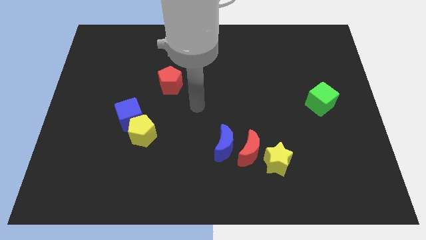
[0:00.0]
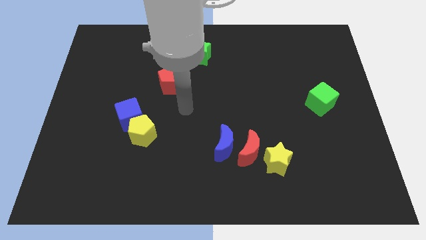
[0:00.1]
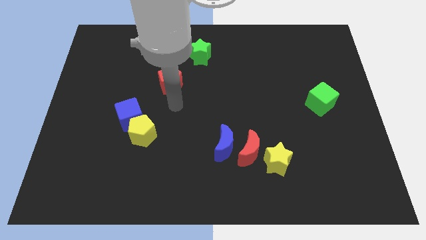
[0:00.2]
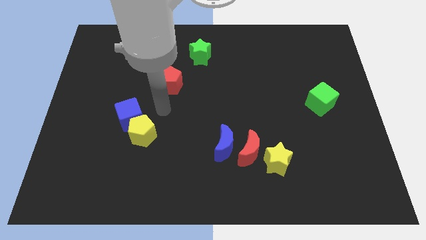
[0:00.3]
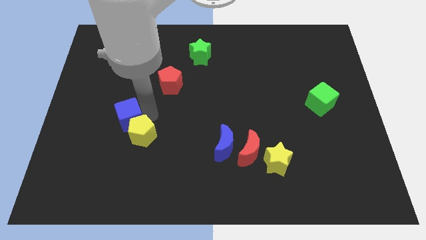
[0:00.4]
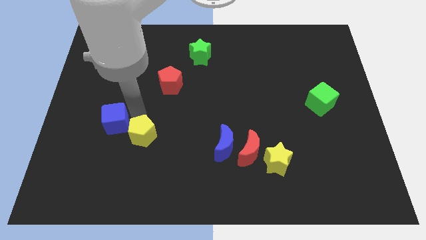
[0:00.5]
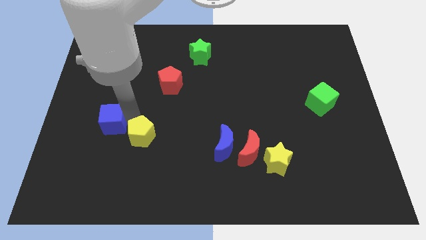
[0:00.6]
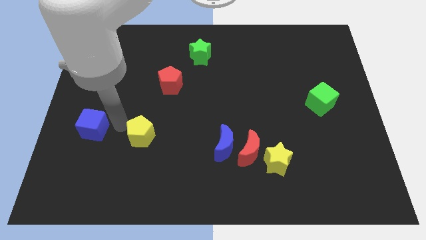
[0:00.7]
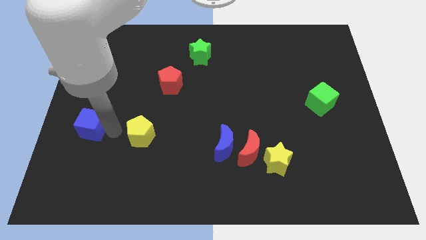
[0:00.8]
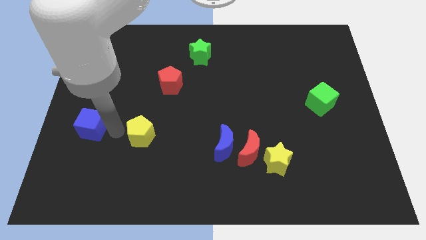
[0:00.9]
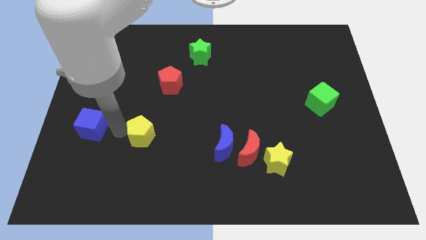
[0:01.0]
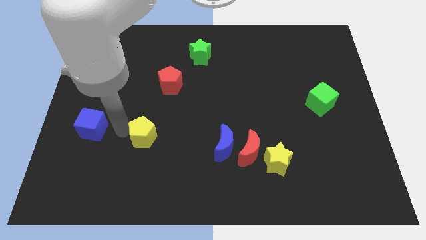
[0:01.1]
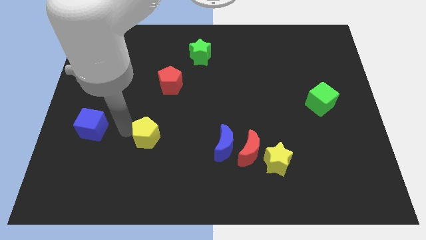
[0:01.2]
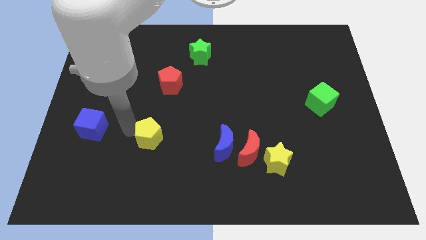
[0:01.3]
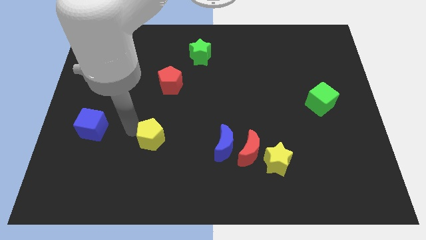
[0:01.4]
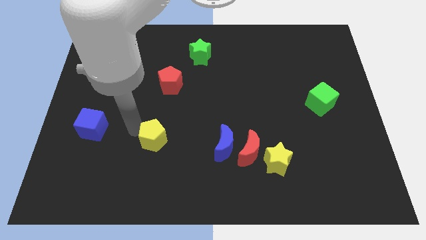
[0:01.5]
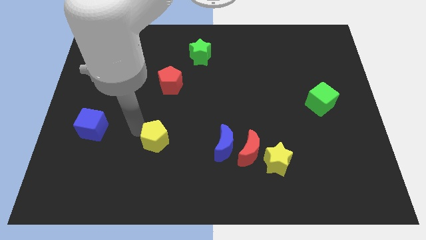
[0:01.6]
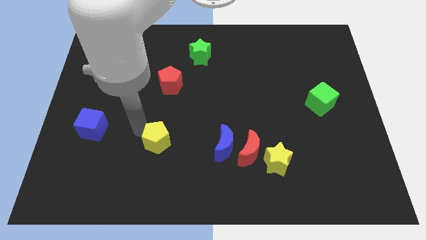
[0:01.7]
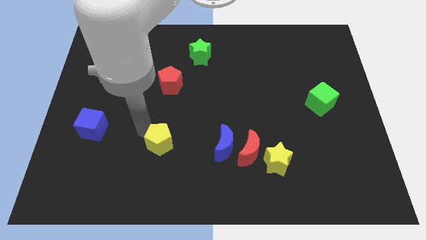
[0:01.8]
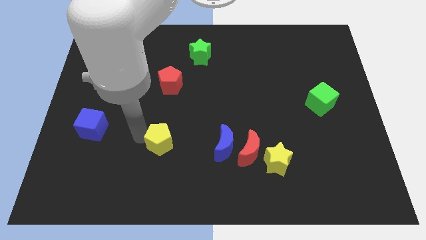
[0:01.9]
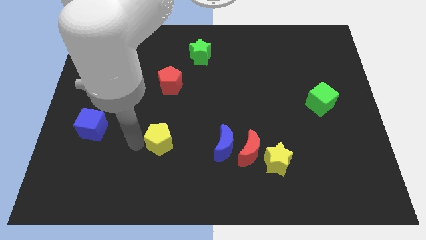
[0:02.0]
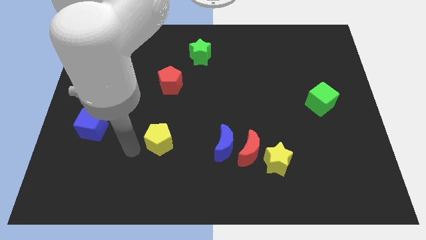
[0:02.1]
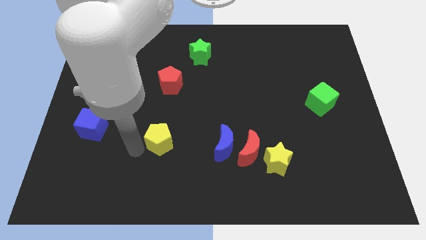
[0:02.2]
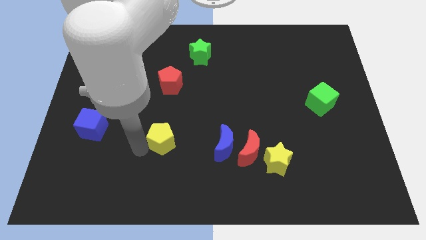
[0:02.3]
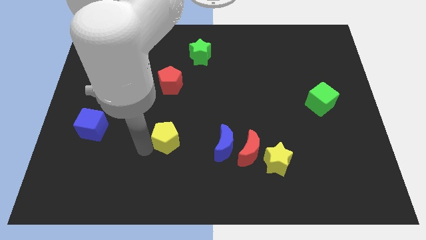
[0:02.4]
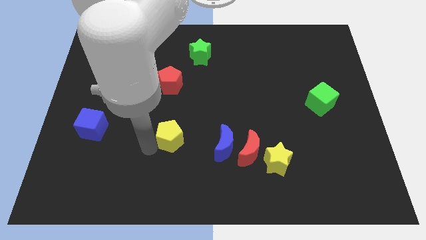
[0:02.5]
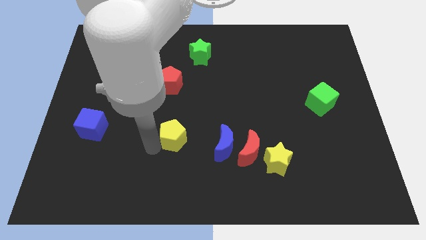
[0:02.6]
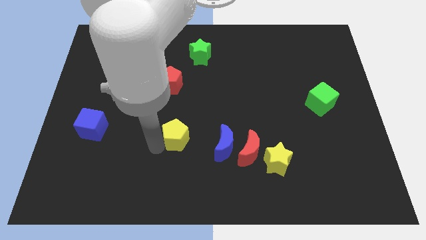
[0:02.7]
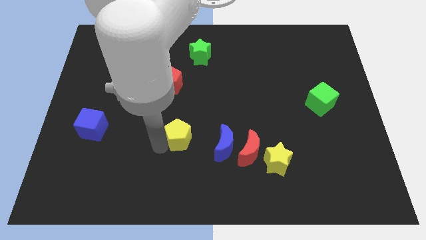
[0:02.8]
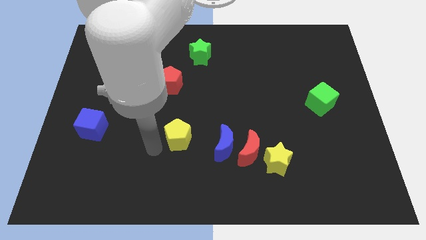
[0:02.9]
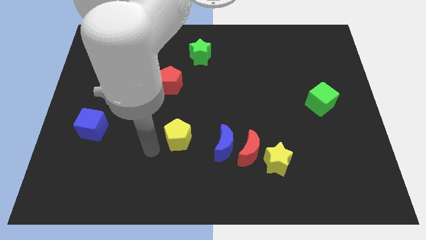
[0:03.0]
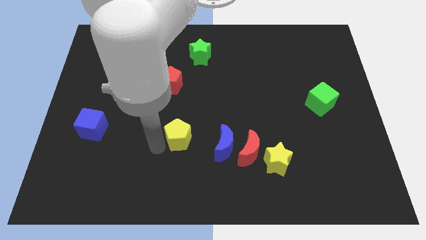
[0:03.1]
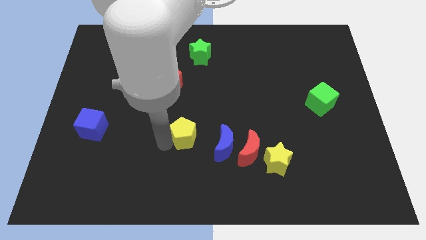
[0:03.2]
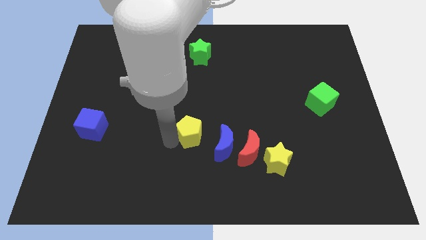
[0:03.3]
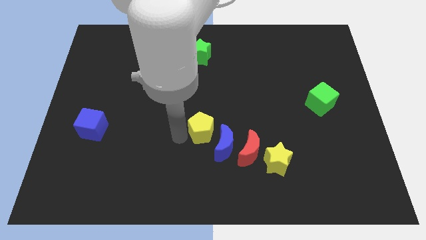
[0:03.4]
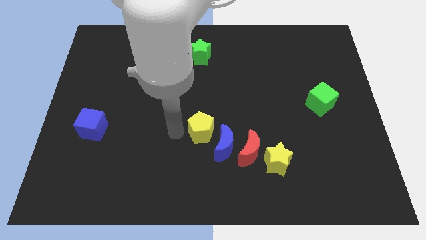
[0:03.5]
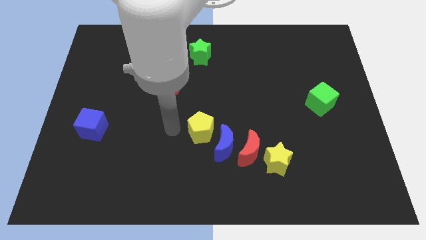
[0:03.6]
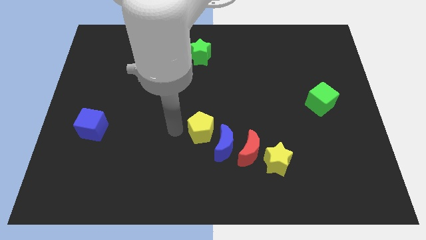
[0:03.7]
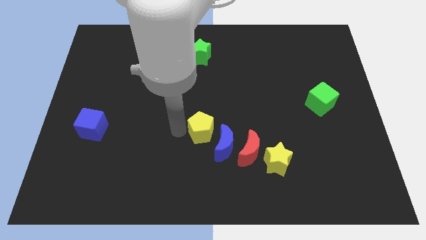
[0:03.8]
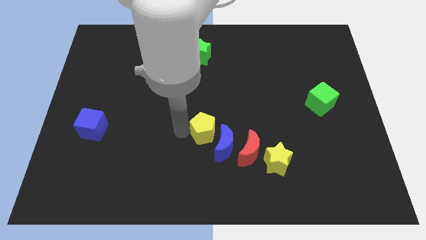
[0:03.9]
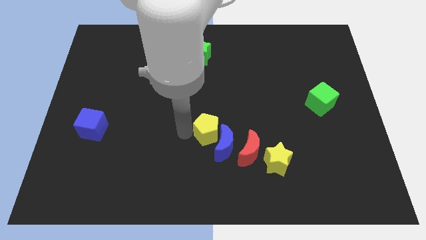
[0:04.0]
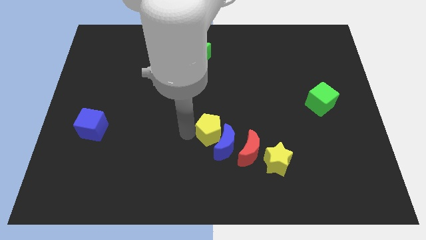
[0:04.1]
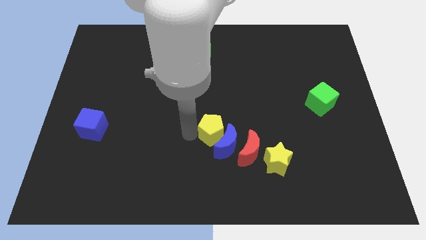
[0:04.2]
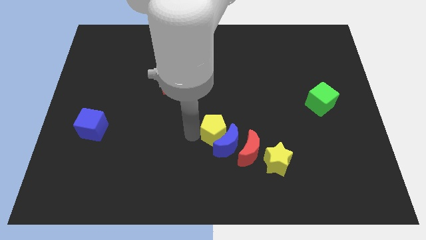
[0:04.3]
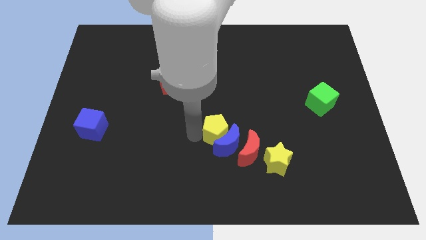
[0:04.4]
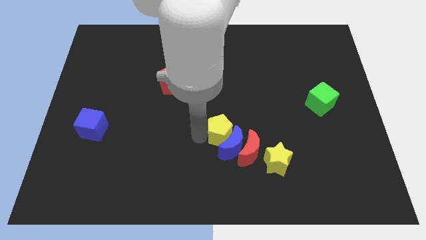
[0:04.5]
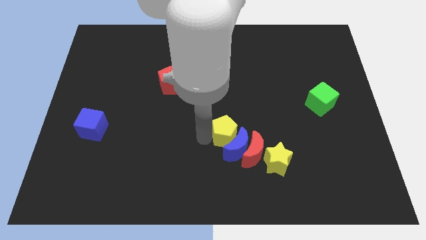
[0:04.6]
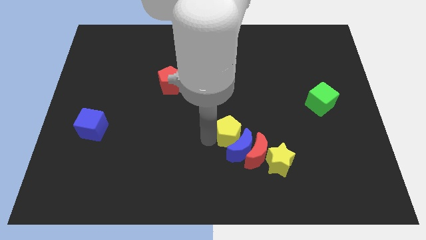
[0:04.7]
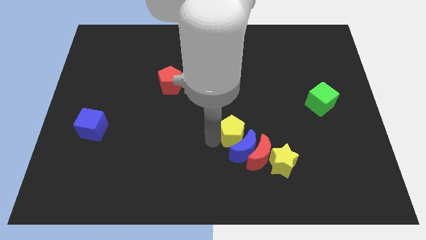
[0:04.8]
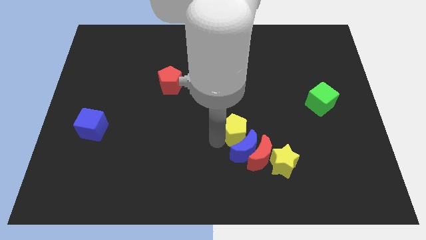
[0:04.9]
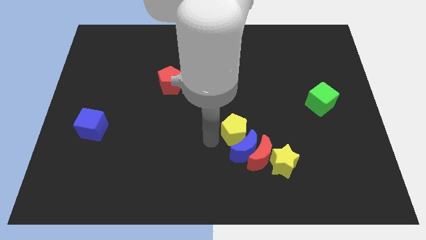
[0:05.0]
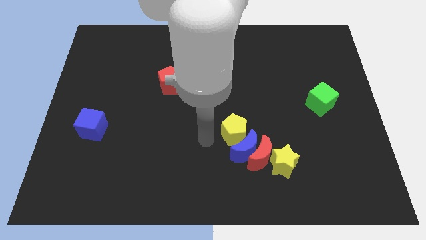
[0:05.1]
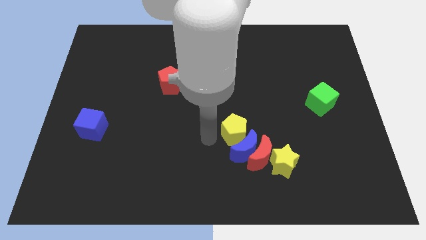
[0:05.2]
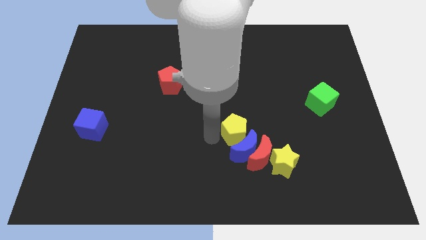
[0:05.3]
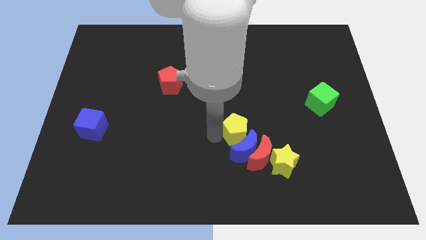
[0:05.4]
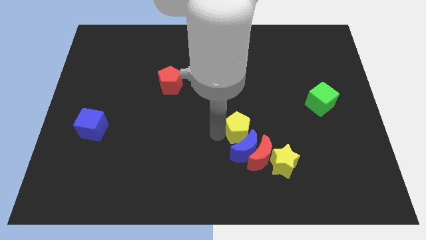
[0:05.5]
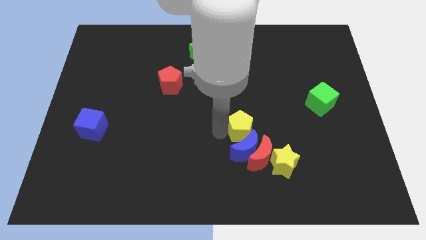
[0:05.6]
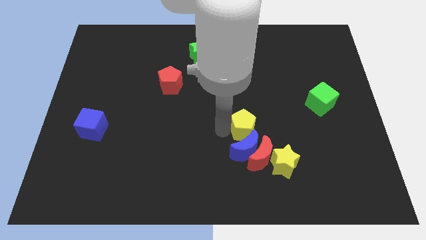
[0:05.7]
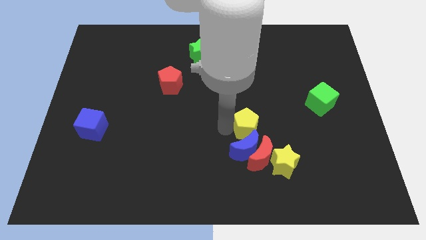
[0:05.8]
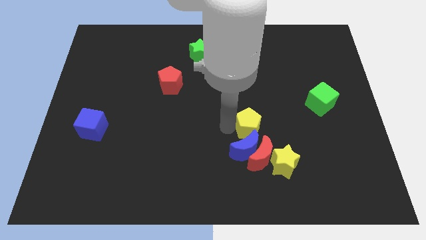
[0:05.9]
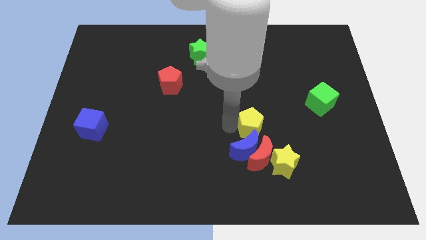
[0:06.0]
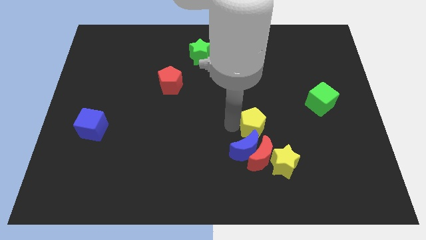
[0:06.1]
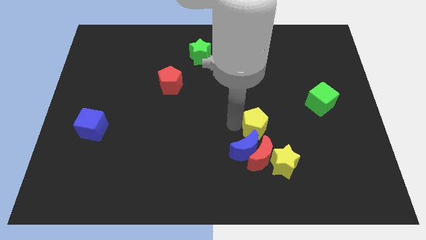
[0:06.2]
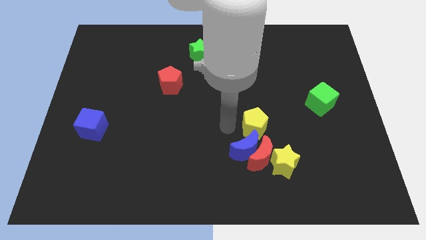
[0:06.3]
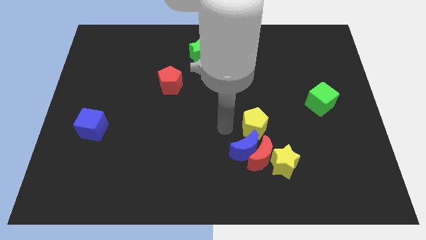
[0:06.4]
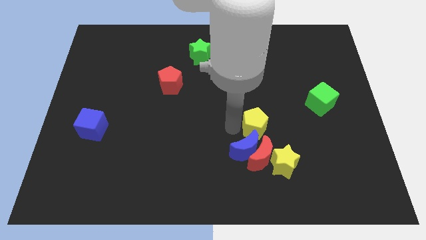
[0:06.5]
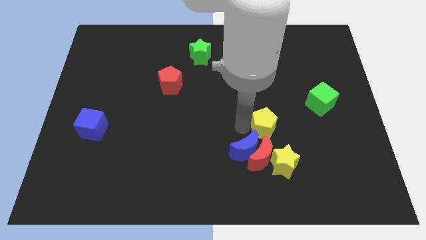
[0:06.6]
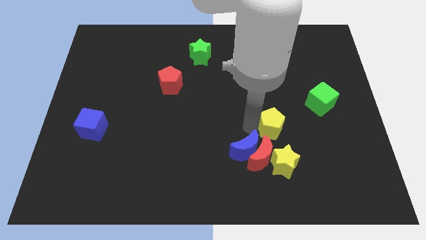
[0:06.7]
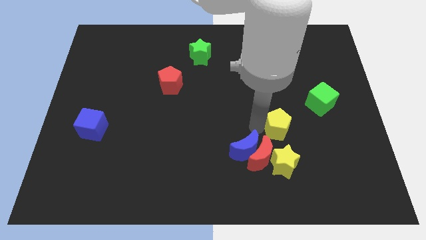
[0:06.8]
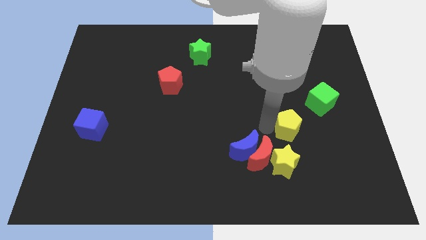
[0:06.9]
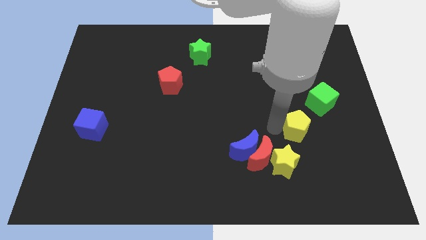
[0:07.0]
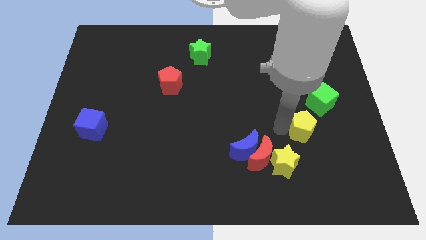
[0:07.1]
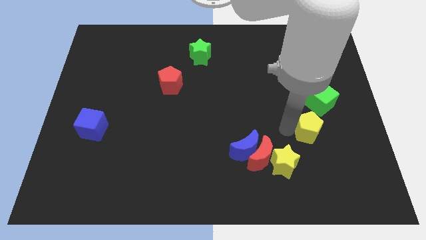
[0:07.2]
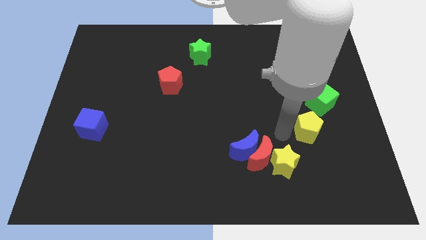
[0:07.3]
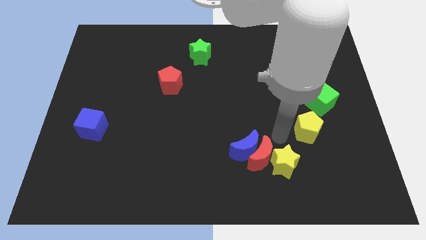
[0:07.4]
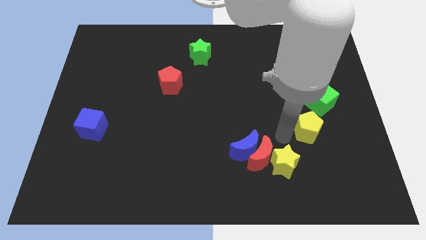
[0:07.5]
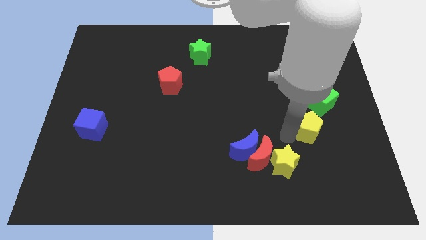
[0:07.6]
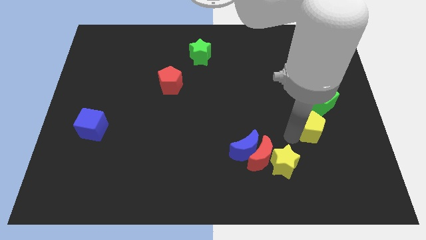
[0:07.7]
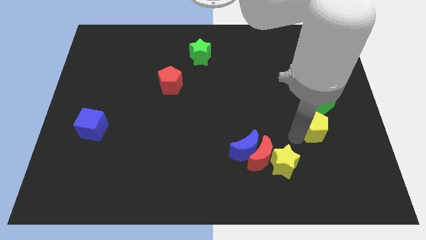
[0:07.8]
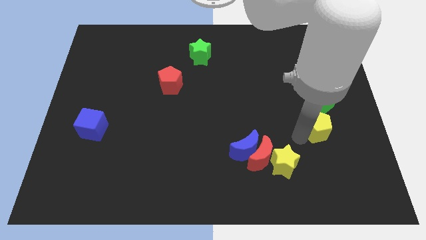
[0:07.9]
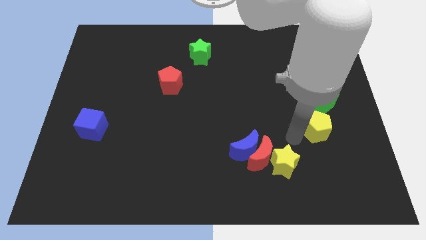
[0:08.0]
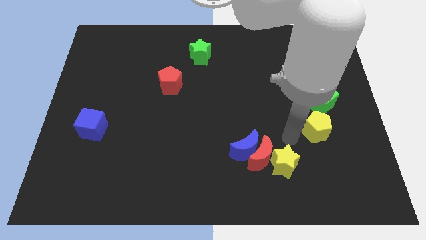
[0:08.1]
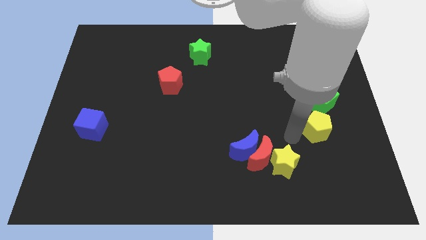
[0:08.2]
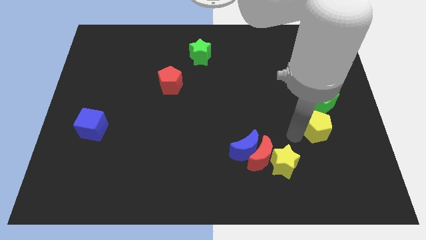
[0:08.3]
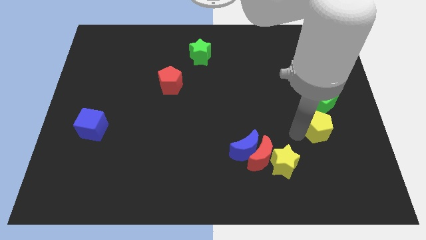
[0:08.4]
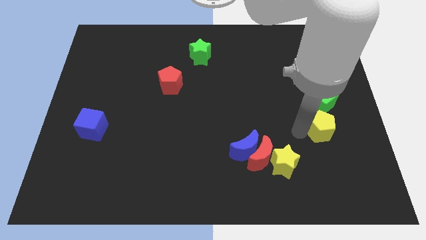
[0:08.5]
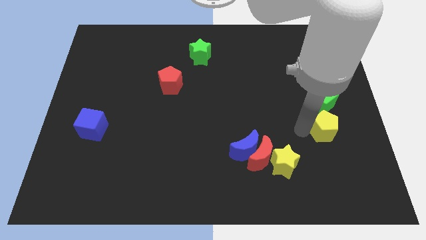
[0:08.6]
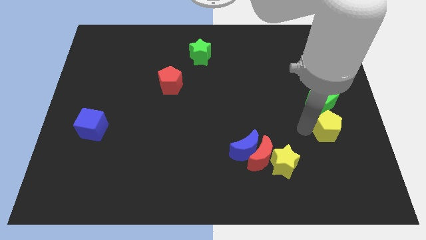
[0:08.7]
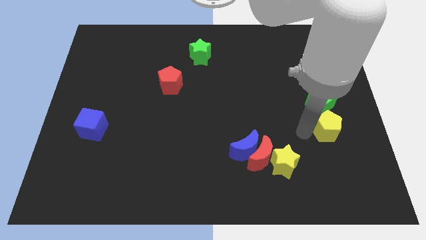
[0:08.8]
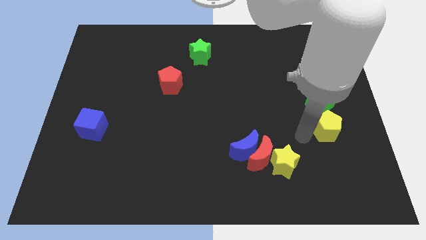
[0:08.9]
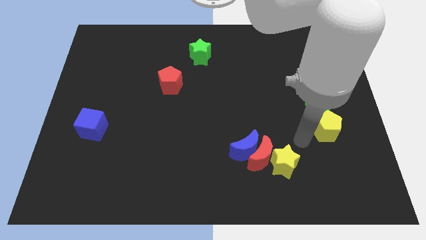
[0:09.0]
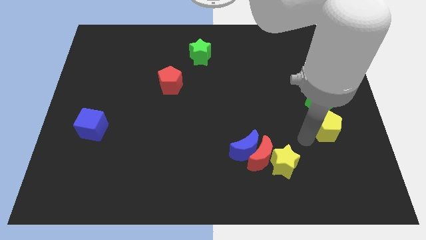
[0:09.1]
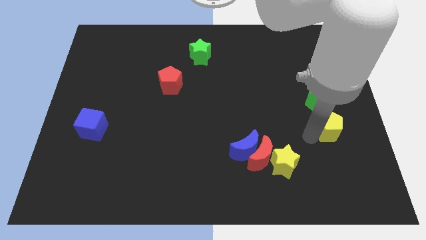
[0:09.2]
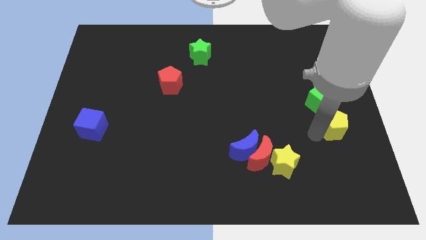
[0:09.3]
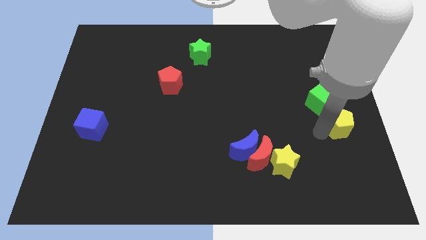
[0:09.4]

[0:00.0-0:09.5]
slide the yellow pentagon to the right side
